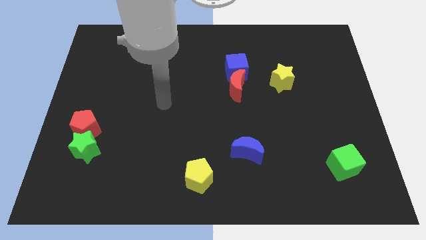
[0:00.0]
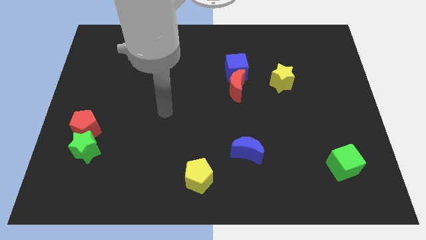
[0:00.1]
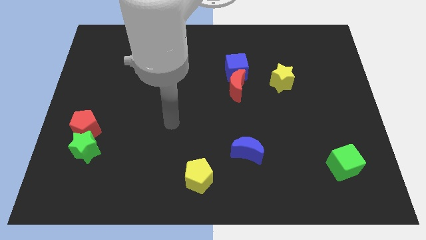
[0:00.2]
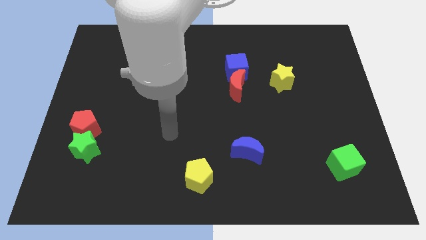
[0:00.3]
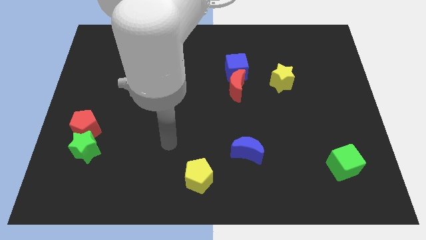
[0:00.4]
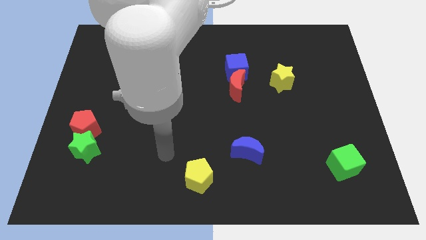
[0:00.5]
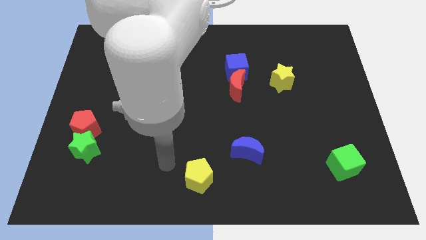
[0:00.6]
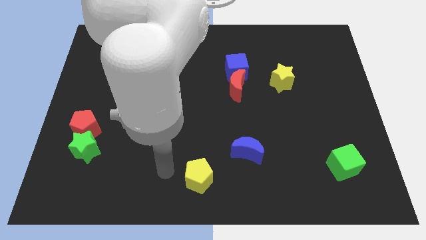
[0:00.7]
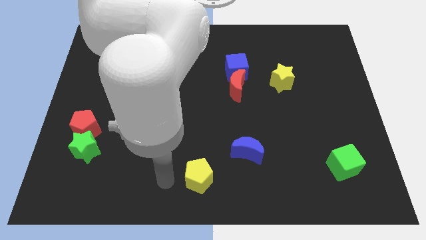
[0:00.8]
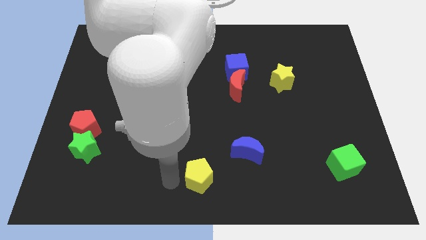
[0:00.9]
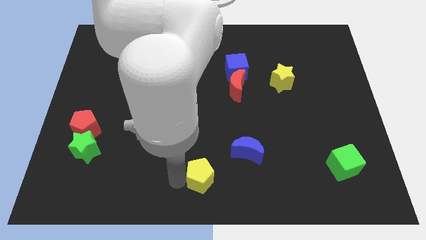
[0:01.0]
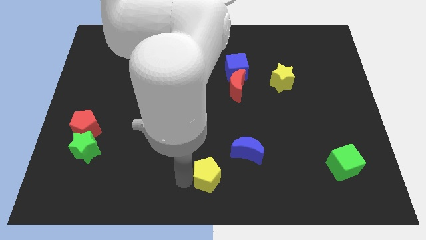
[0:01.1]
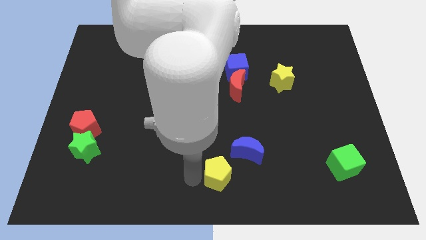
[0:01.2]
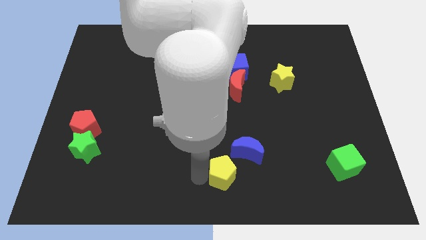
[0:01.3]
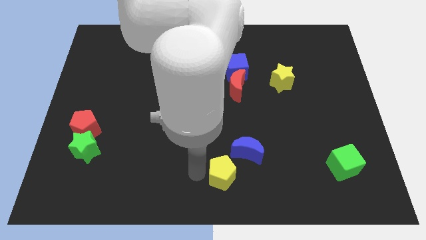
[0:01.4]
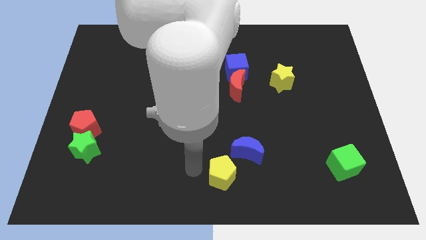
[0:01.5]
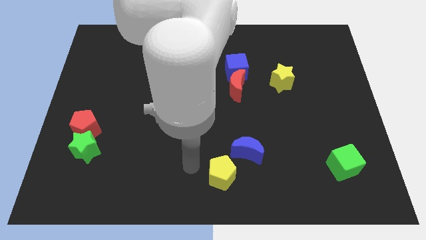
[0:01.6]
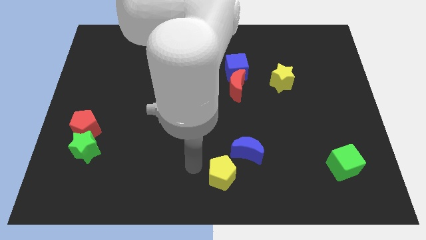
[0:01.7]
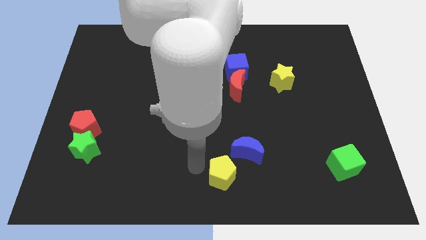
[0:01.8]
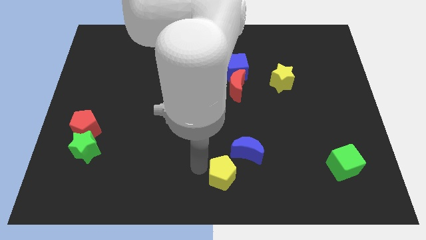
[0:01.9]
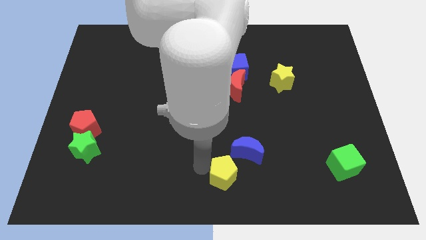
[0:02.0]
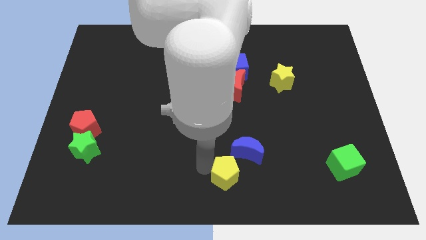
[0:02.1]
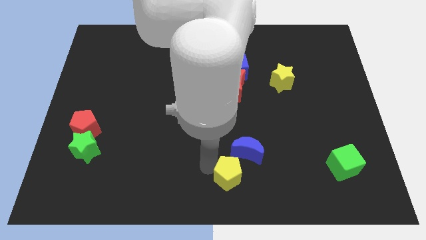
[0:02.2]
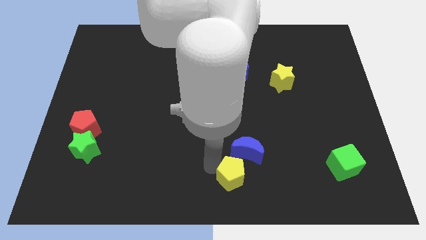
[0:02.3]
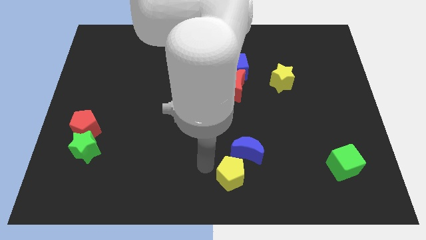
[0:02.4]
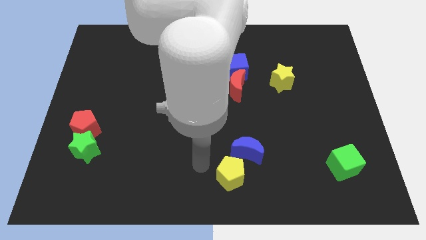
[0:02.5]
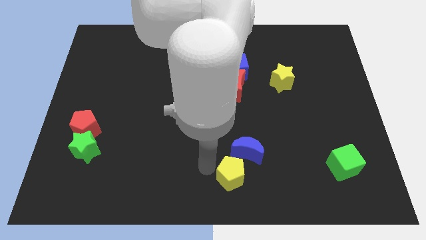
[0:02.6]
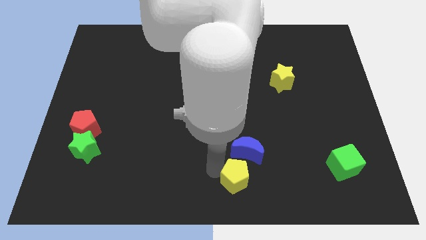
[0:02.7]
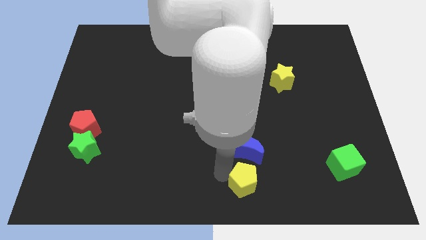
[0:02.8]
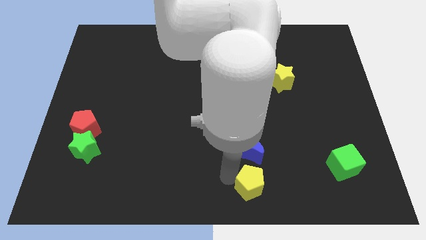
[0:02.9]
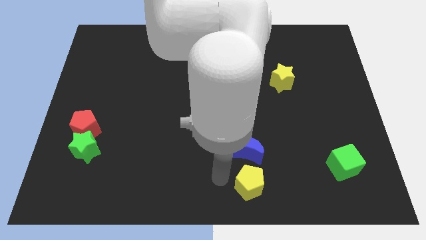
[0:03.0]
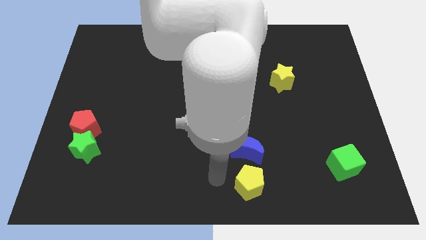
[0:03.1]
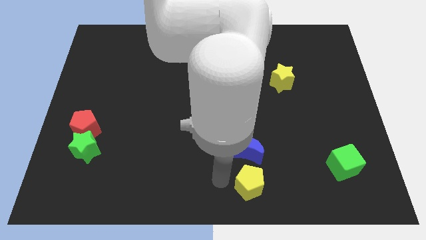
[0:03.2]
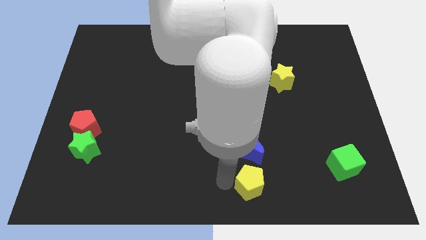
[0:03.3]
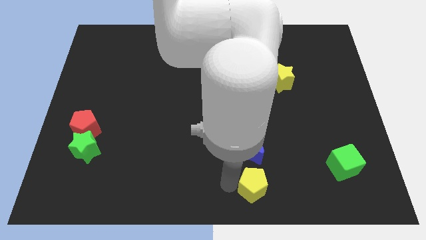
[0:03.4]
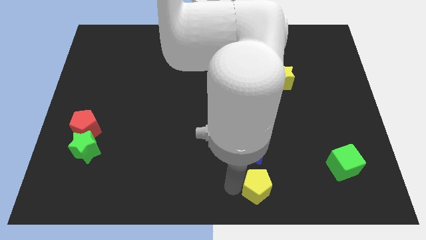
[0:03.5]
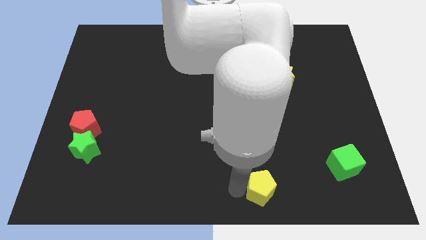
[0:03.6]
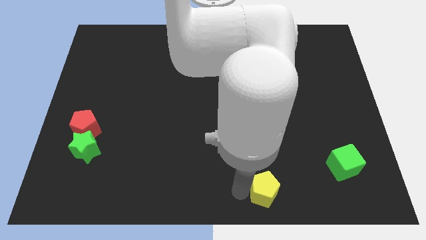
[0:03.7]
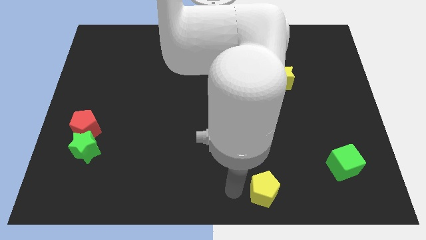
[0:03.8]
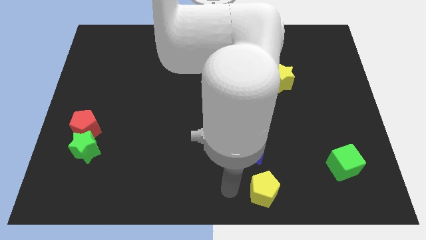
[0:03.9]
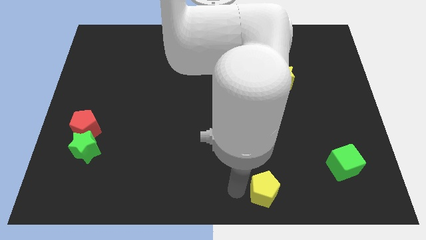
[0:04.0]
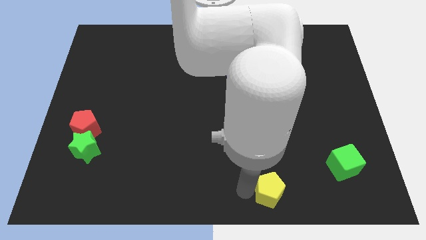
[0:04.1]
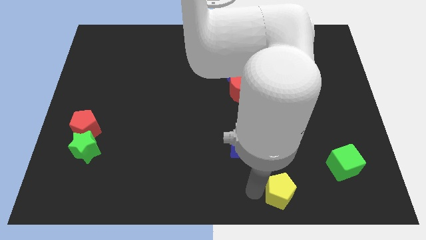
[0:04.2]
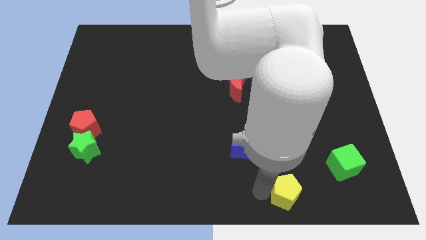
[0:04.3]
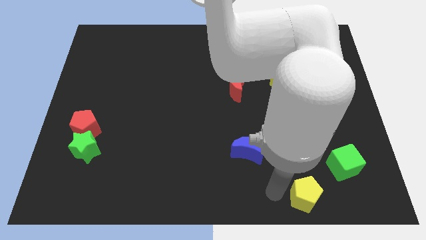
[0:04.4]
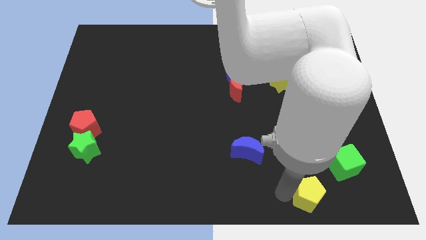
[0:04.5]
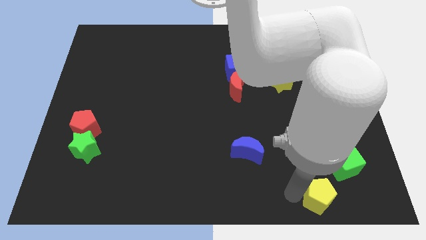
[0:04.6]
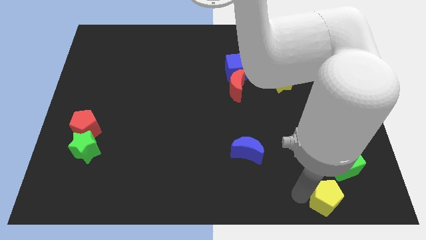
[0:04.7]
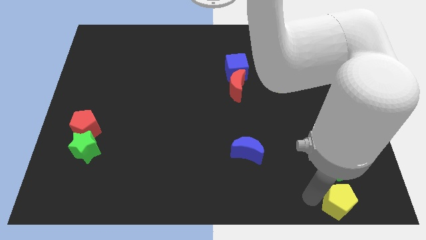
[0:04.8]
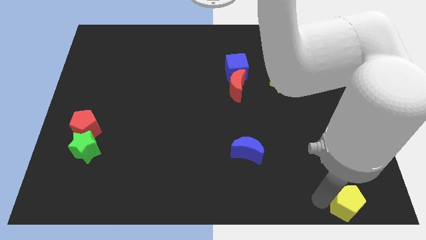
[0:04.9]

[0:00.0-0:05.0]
move the yellow pentagon to the bottom right

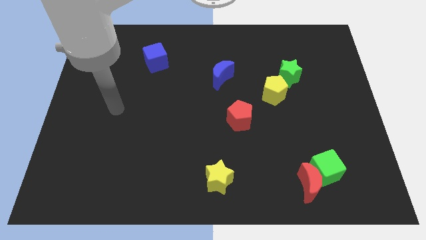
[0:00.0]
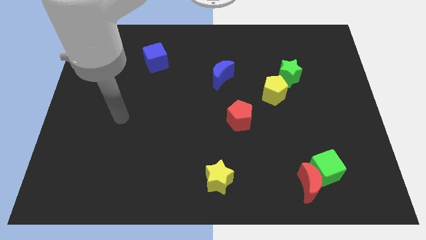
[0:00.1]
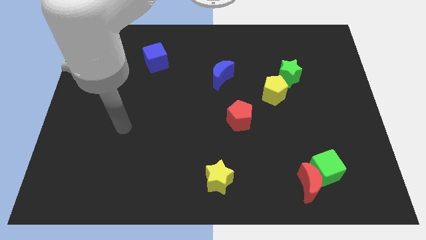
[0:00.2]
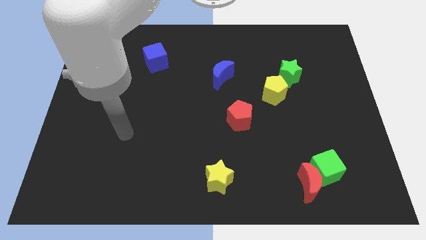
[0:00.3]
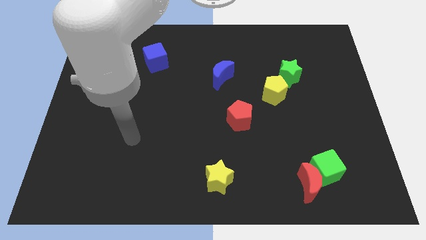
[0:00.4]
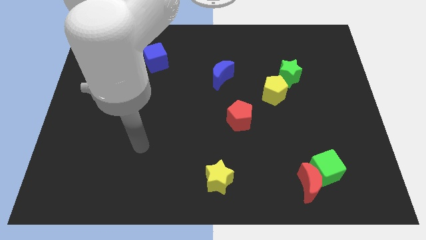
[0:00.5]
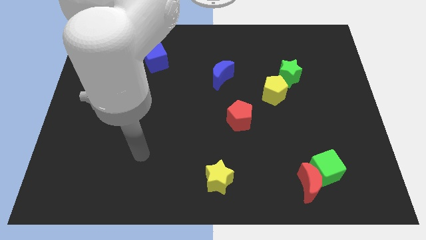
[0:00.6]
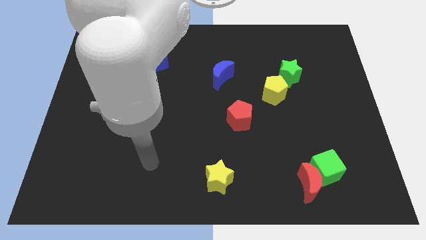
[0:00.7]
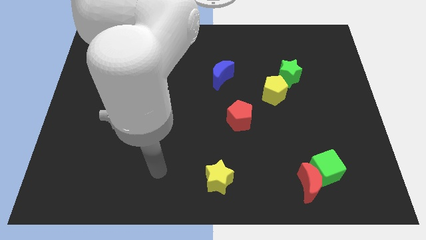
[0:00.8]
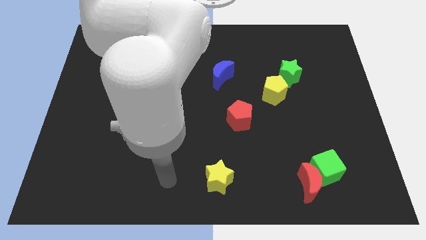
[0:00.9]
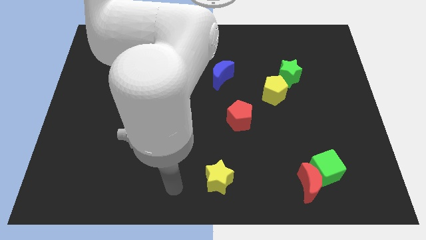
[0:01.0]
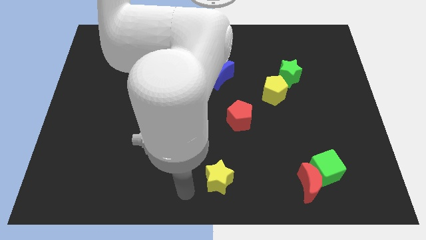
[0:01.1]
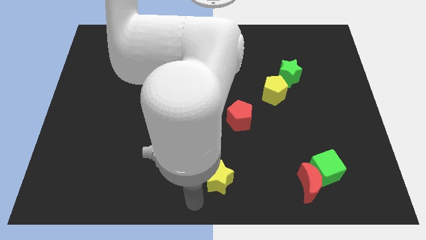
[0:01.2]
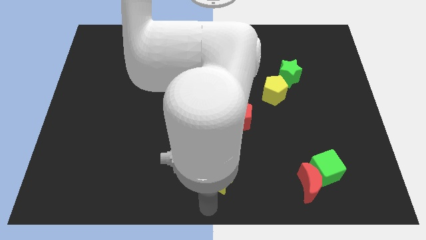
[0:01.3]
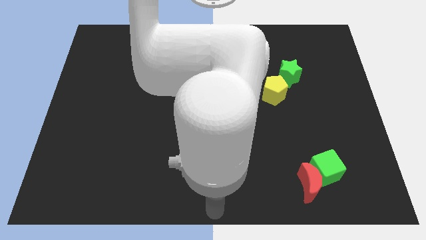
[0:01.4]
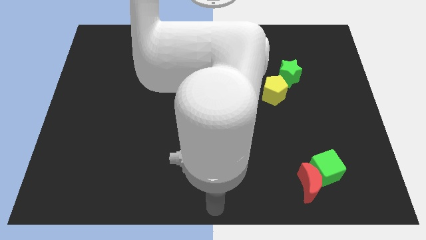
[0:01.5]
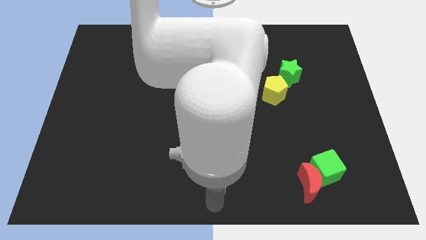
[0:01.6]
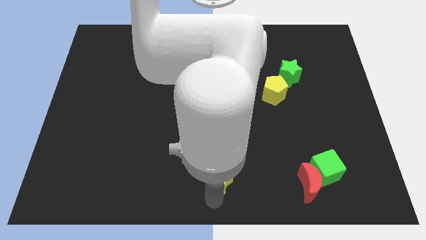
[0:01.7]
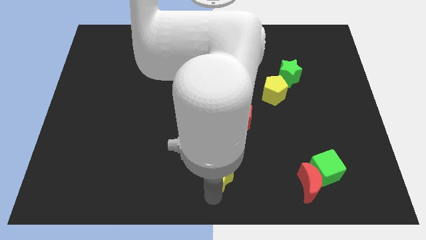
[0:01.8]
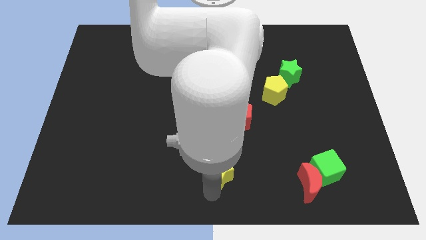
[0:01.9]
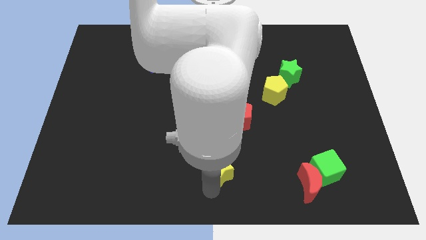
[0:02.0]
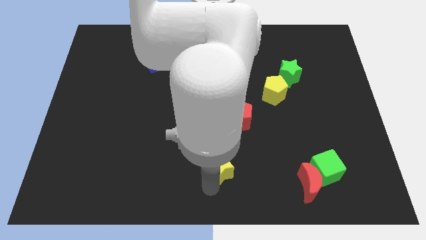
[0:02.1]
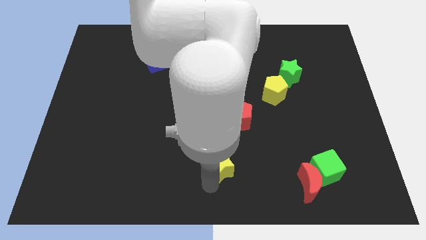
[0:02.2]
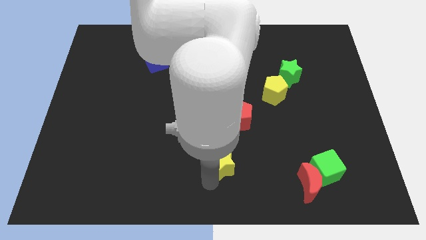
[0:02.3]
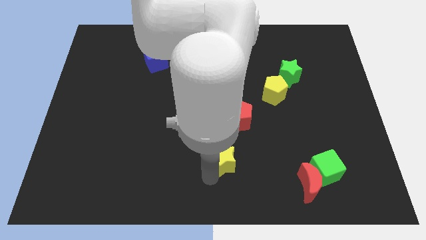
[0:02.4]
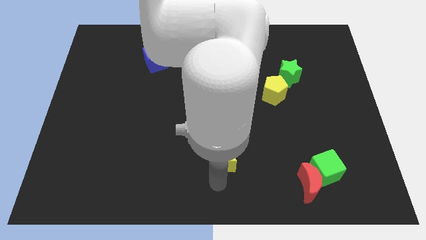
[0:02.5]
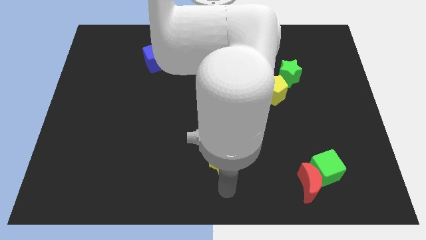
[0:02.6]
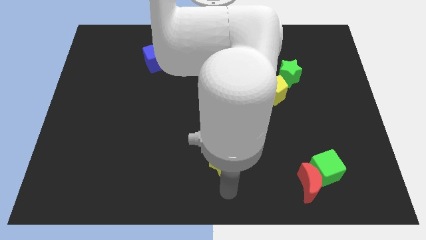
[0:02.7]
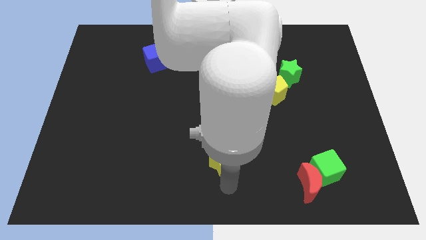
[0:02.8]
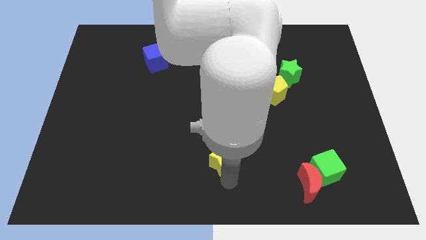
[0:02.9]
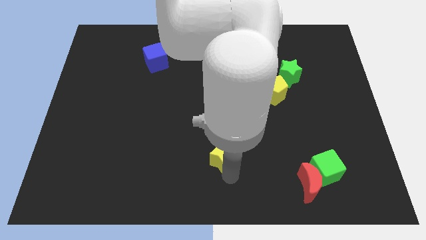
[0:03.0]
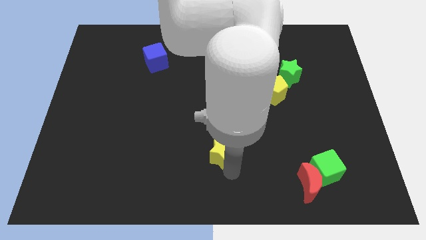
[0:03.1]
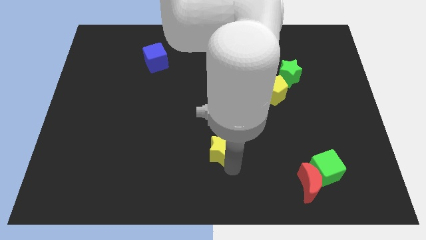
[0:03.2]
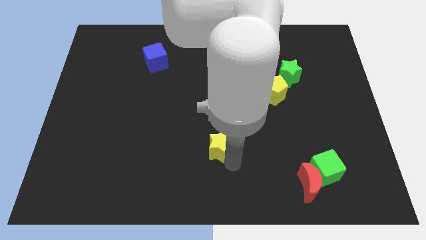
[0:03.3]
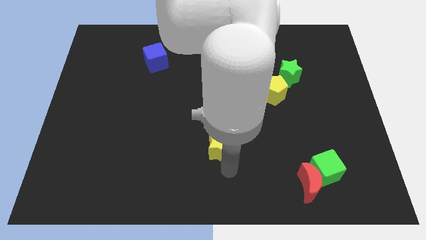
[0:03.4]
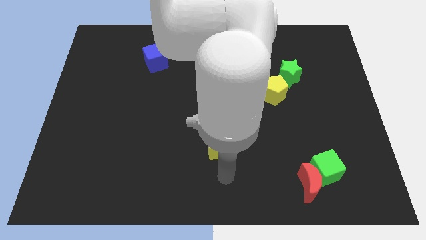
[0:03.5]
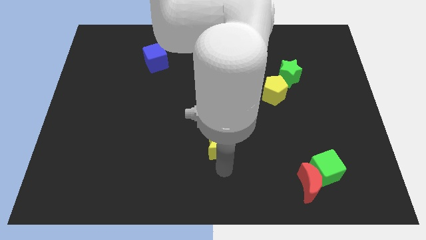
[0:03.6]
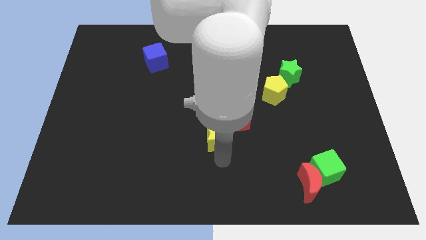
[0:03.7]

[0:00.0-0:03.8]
push the yellow star to the center of the board
